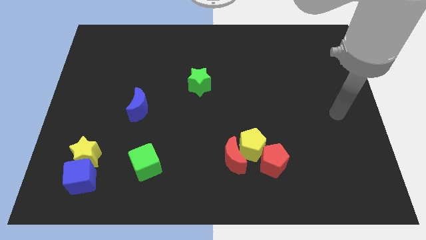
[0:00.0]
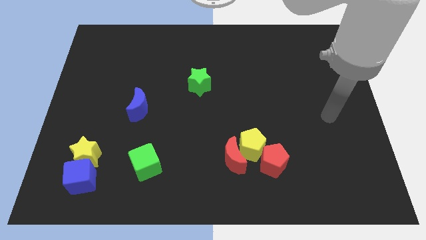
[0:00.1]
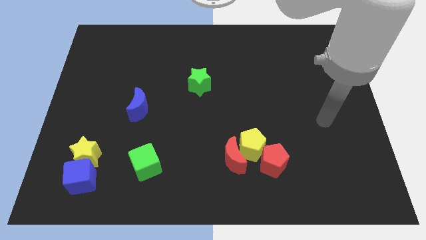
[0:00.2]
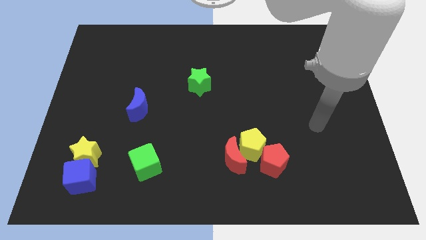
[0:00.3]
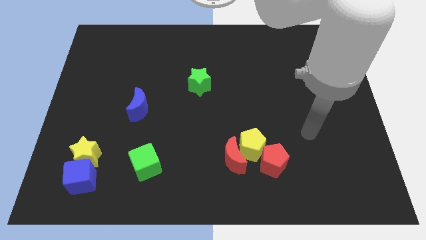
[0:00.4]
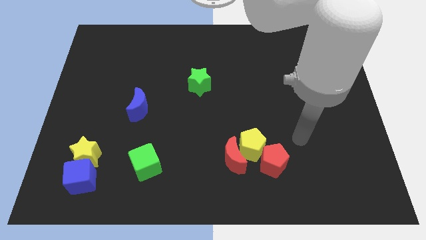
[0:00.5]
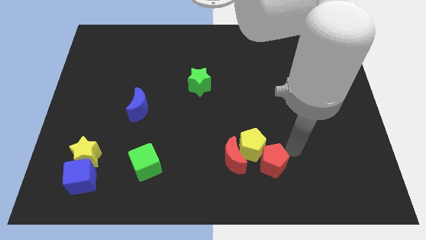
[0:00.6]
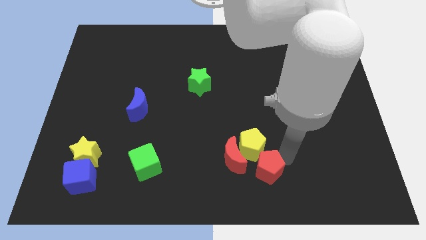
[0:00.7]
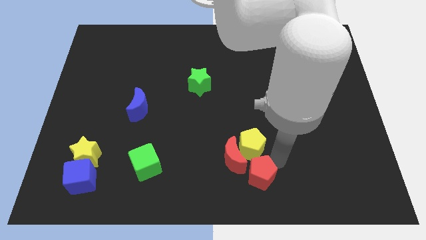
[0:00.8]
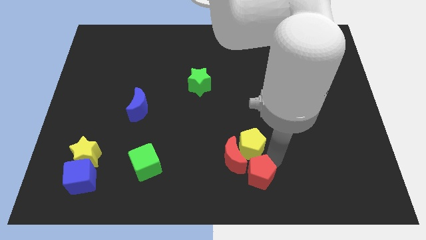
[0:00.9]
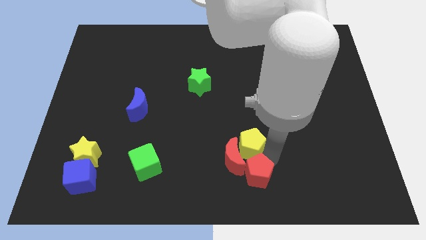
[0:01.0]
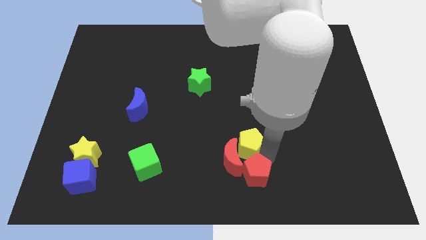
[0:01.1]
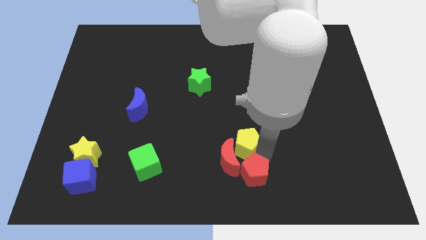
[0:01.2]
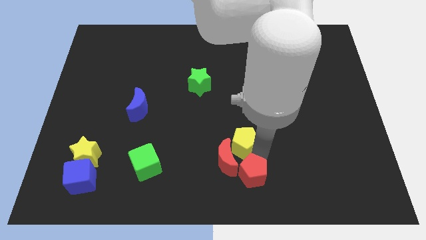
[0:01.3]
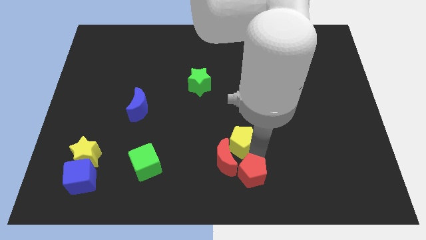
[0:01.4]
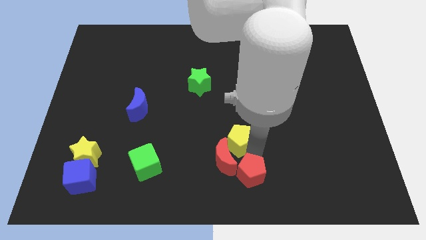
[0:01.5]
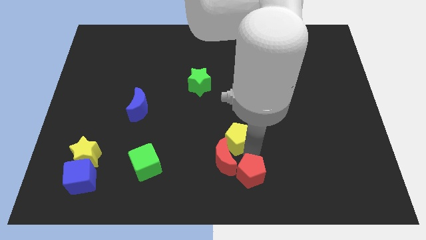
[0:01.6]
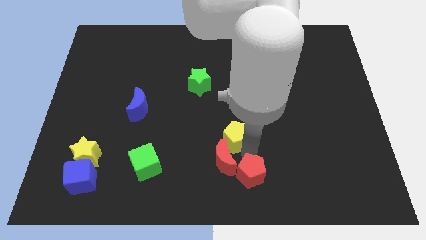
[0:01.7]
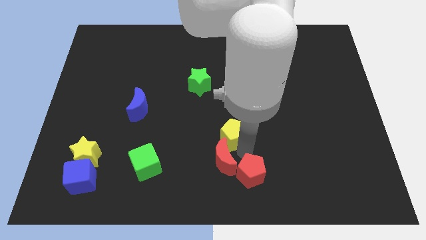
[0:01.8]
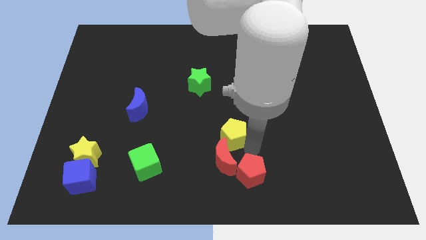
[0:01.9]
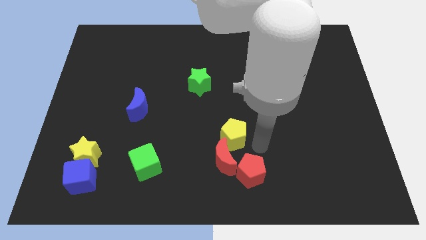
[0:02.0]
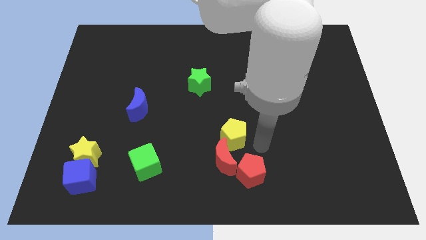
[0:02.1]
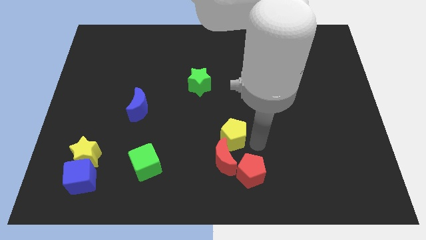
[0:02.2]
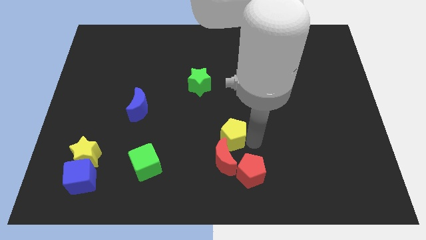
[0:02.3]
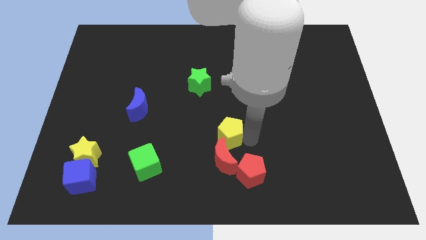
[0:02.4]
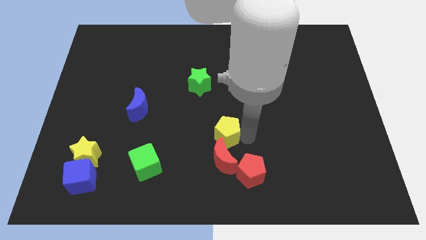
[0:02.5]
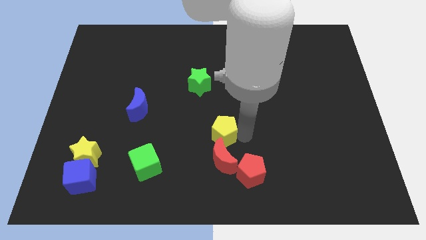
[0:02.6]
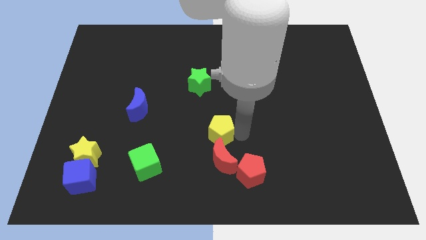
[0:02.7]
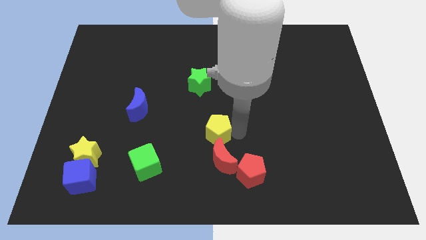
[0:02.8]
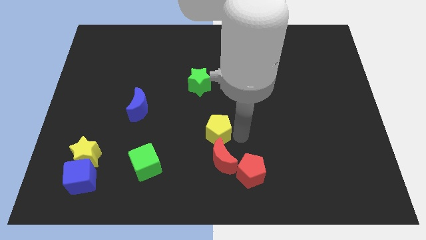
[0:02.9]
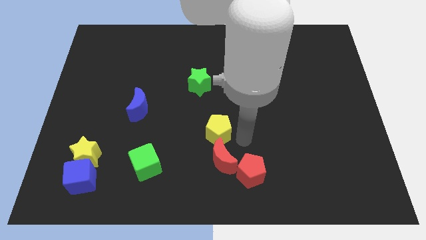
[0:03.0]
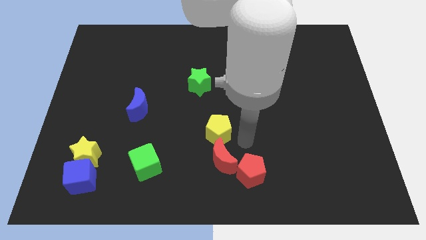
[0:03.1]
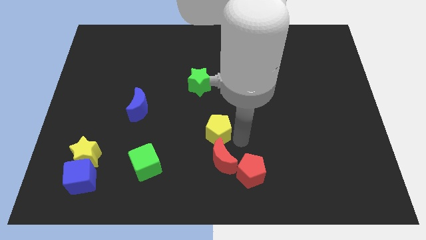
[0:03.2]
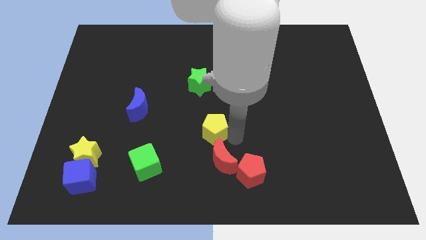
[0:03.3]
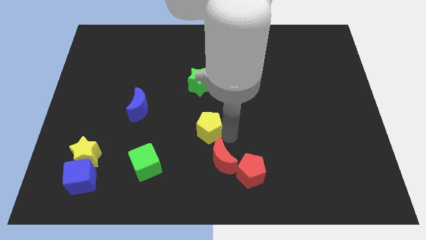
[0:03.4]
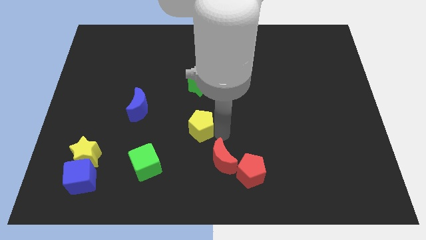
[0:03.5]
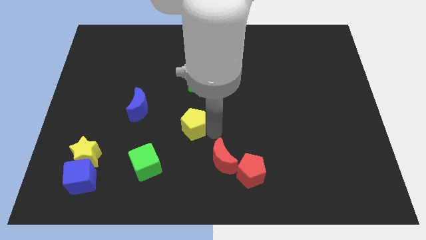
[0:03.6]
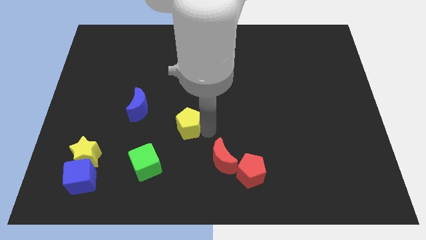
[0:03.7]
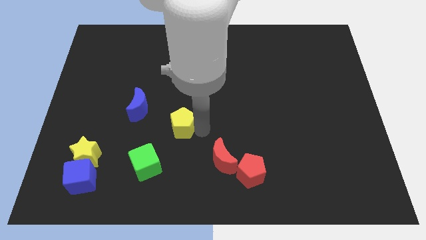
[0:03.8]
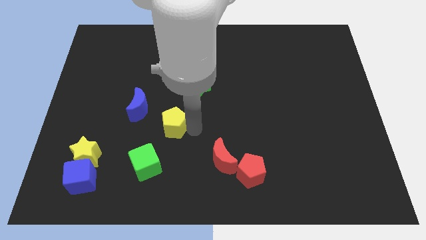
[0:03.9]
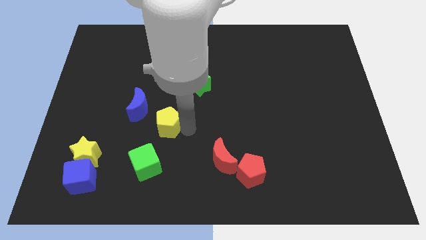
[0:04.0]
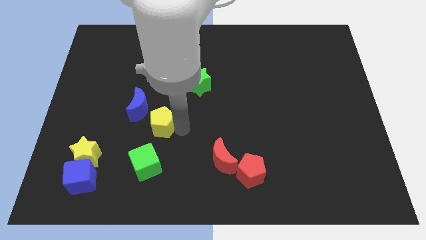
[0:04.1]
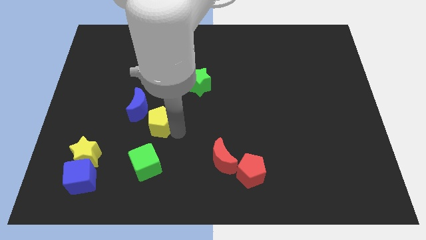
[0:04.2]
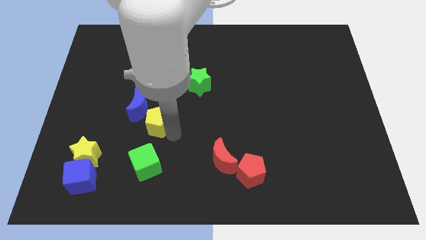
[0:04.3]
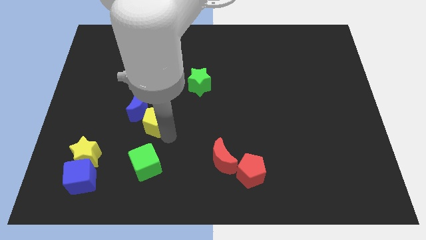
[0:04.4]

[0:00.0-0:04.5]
move the yellow pentagon towards the blue moon

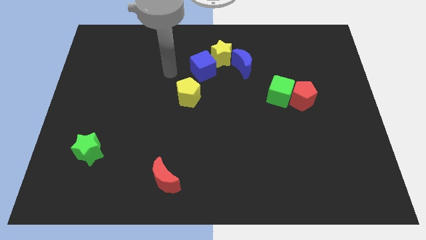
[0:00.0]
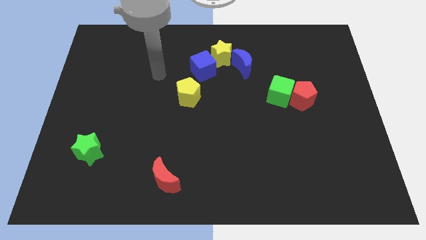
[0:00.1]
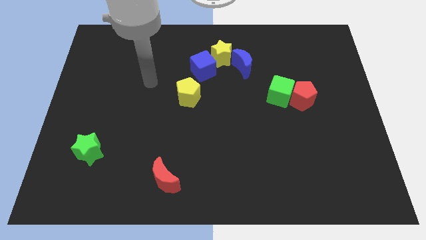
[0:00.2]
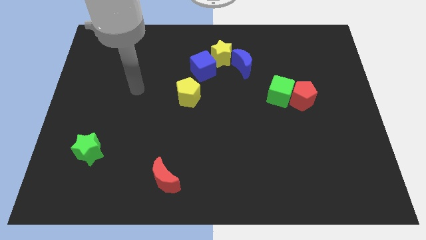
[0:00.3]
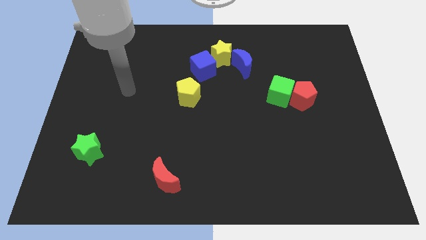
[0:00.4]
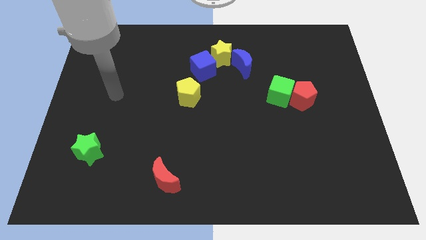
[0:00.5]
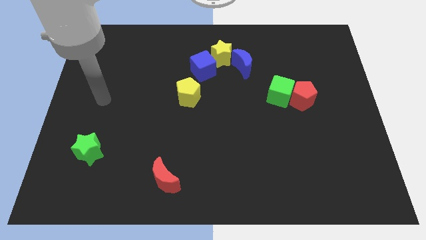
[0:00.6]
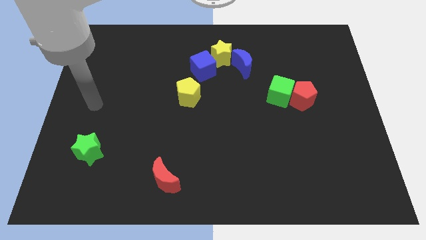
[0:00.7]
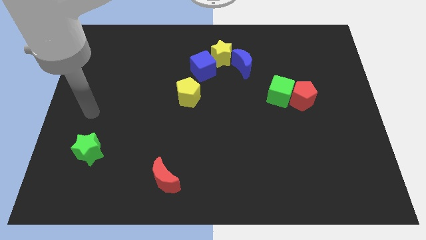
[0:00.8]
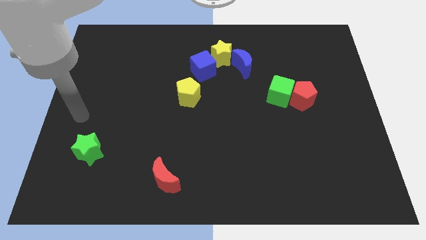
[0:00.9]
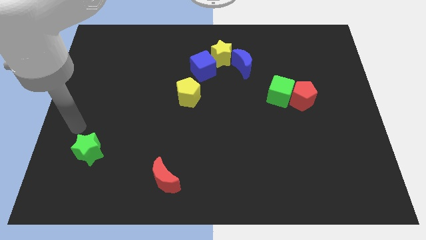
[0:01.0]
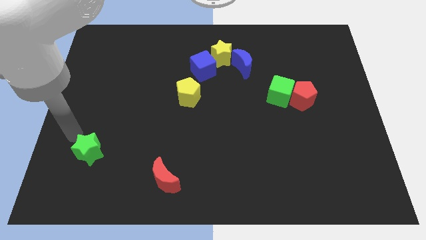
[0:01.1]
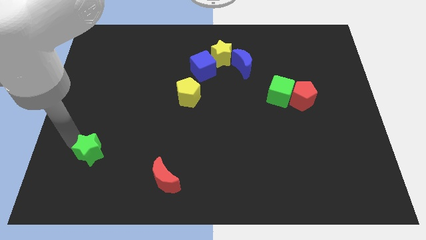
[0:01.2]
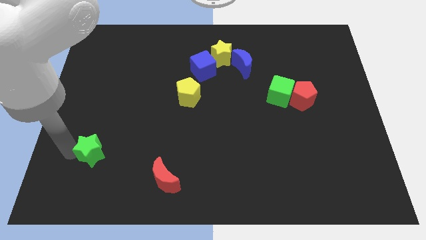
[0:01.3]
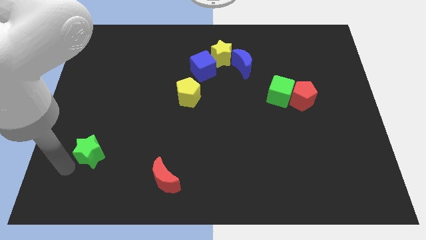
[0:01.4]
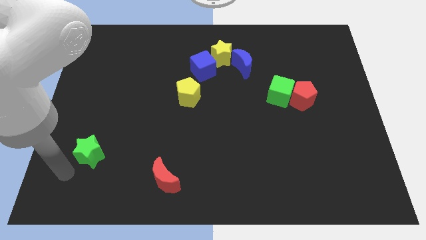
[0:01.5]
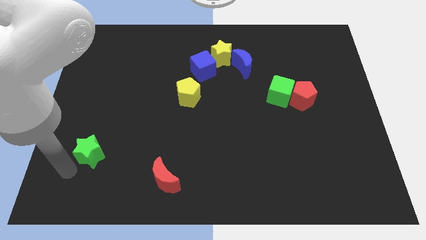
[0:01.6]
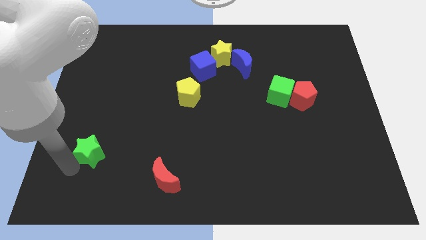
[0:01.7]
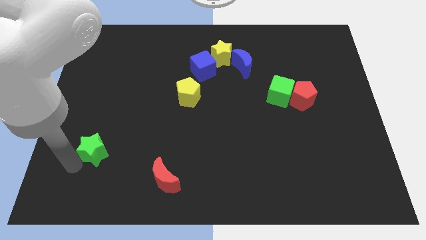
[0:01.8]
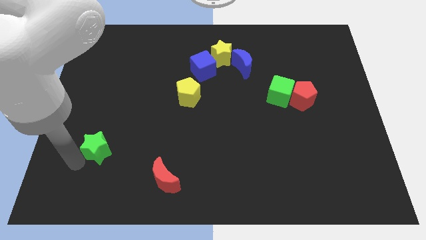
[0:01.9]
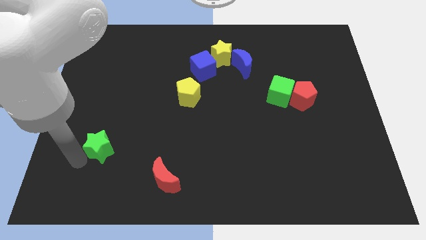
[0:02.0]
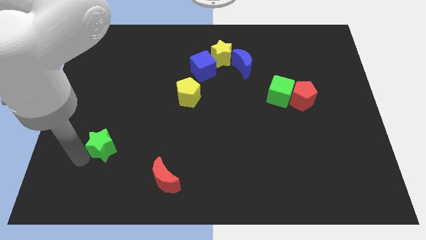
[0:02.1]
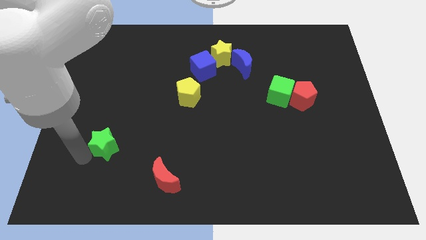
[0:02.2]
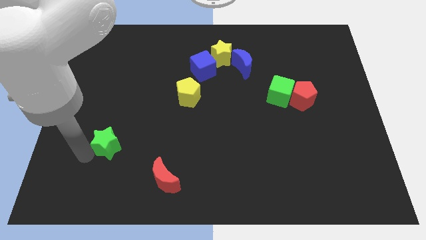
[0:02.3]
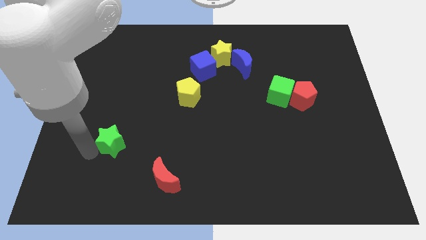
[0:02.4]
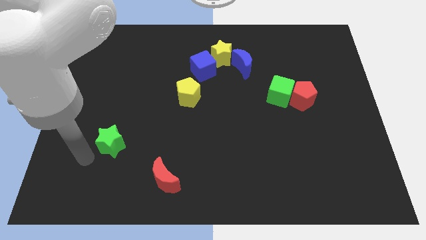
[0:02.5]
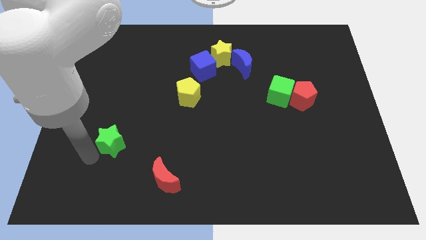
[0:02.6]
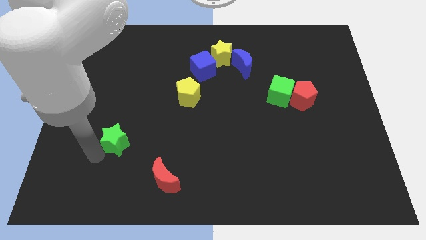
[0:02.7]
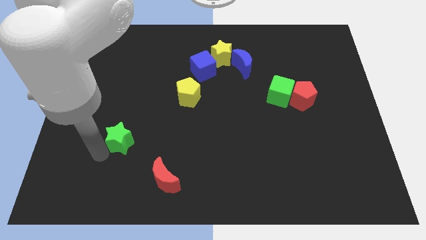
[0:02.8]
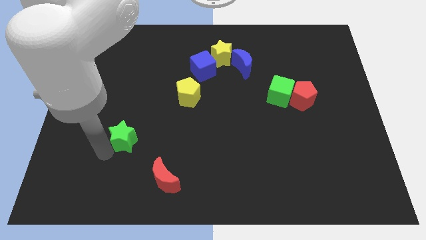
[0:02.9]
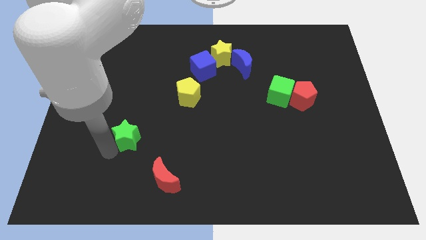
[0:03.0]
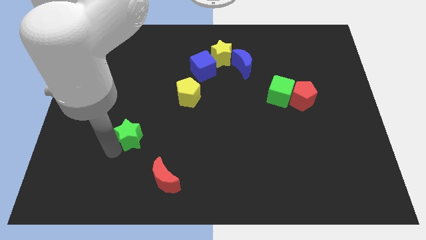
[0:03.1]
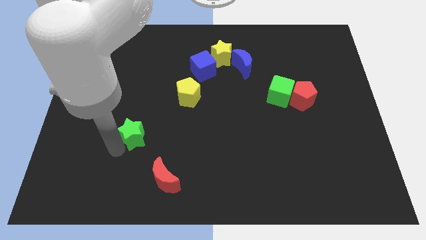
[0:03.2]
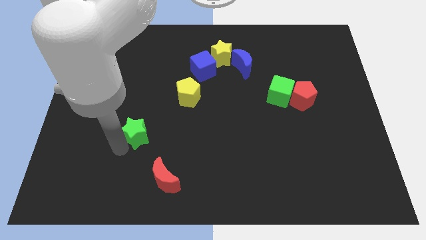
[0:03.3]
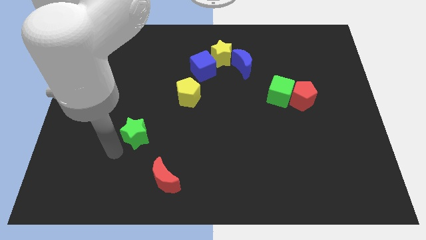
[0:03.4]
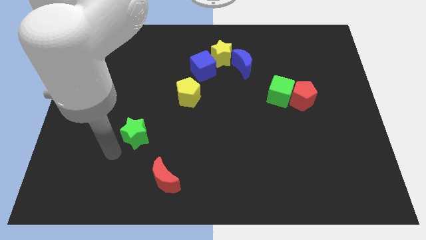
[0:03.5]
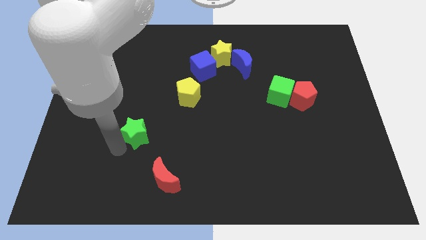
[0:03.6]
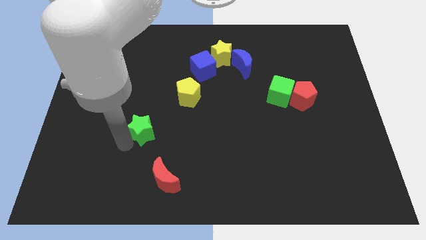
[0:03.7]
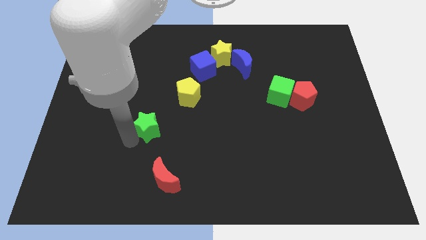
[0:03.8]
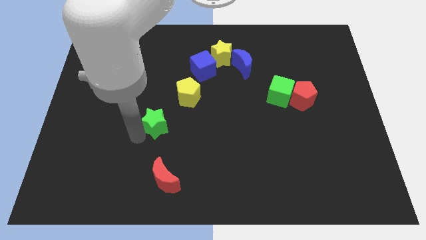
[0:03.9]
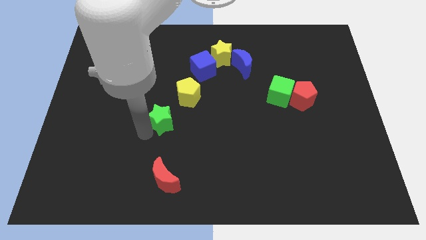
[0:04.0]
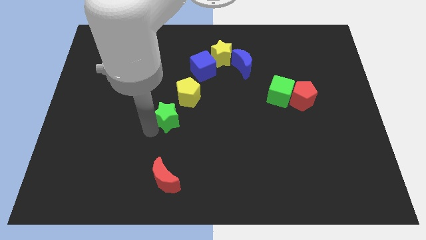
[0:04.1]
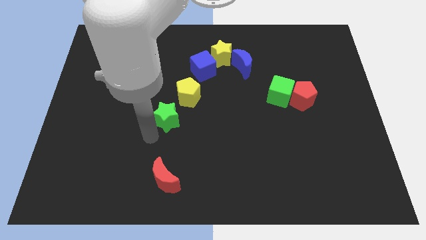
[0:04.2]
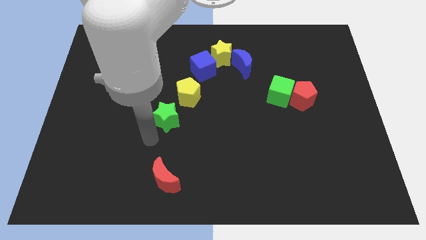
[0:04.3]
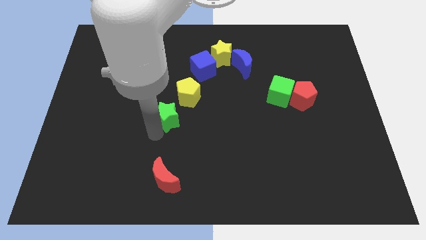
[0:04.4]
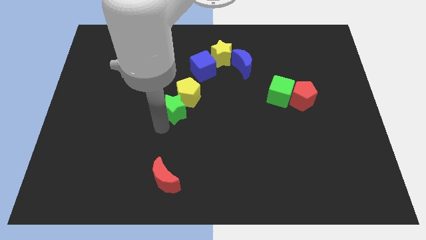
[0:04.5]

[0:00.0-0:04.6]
move the green star towards the yellow pentagon
